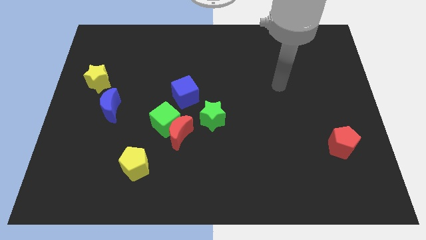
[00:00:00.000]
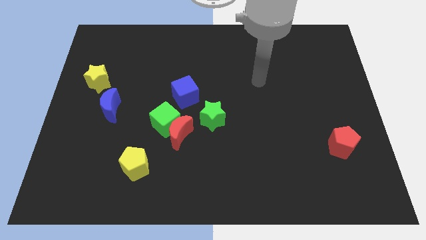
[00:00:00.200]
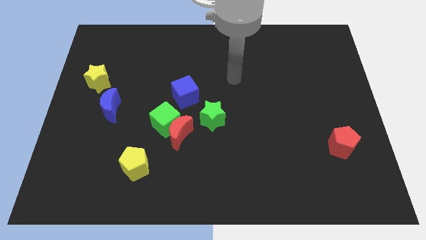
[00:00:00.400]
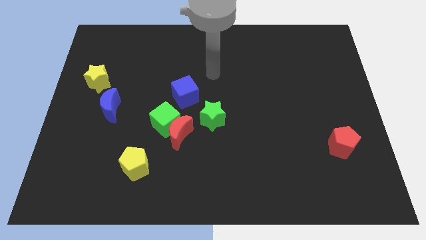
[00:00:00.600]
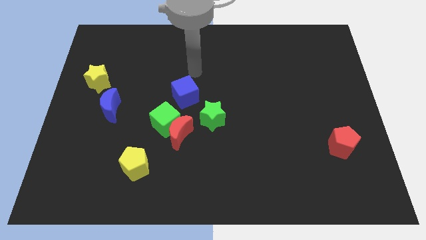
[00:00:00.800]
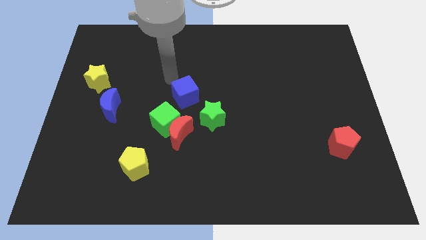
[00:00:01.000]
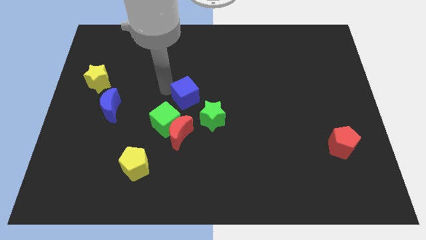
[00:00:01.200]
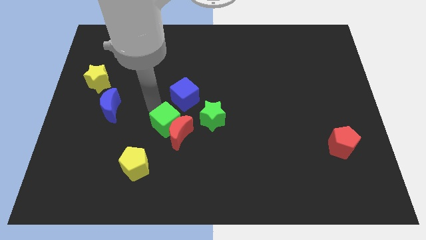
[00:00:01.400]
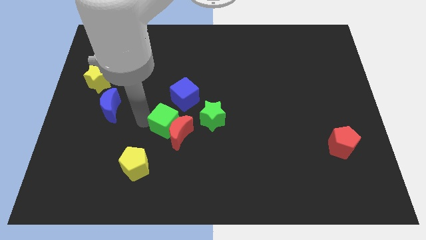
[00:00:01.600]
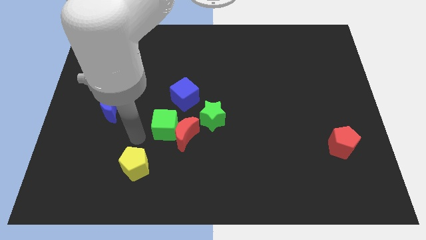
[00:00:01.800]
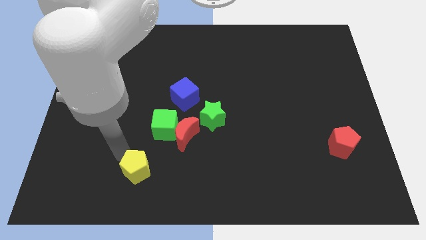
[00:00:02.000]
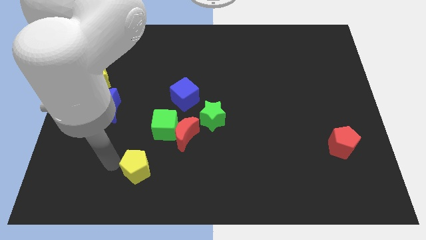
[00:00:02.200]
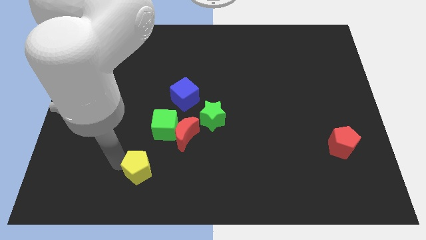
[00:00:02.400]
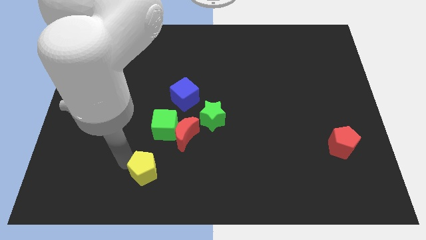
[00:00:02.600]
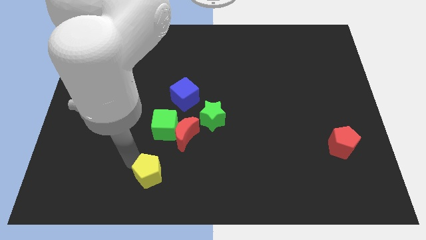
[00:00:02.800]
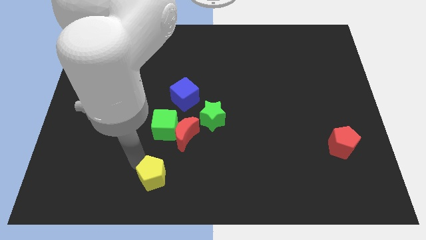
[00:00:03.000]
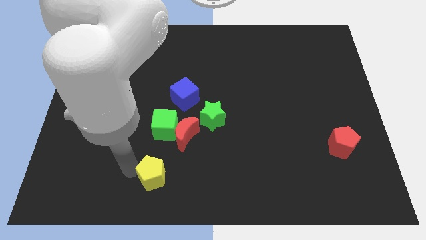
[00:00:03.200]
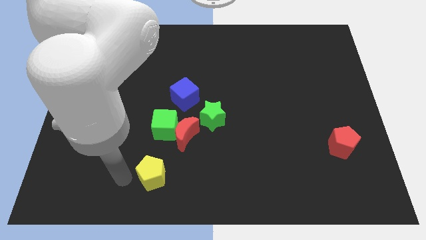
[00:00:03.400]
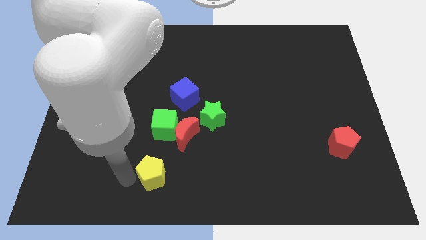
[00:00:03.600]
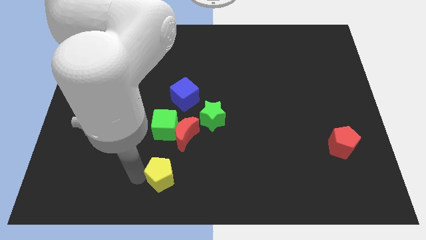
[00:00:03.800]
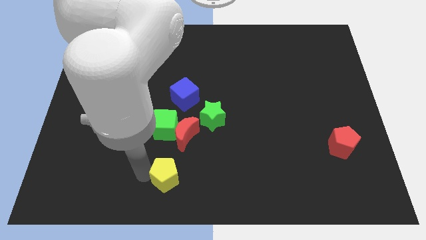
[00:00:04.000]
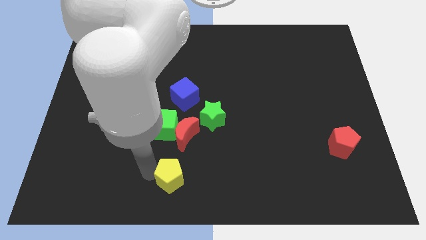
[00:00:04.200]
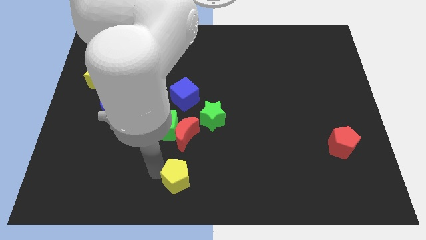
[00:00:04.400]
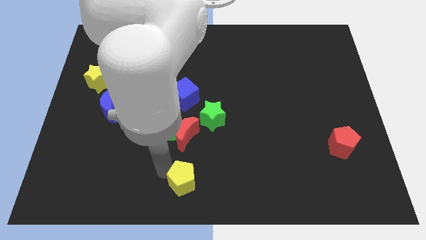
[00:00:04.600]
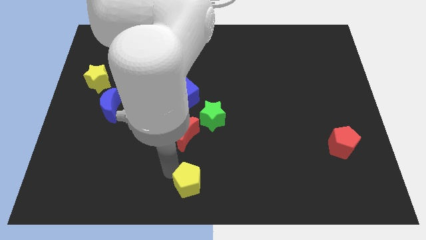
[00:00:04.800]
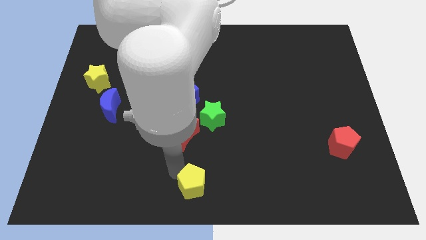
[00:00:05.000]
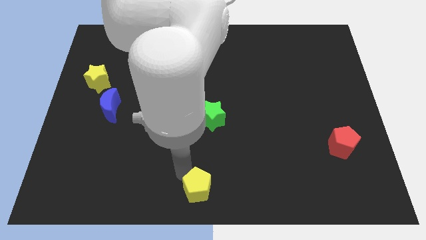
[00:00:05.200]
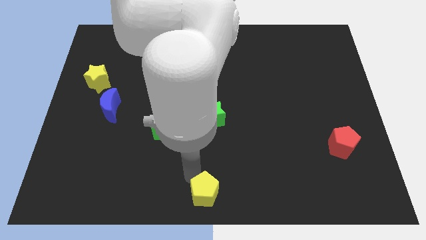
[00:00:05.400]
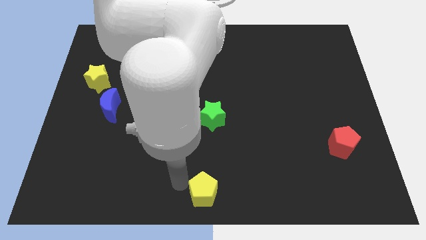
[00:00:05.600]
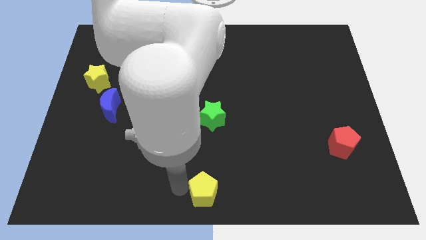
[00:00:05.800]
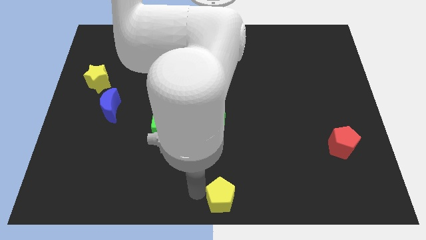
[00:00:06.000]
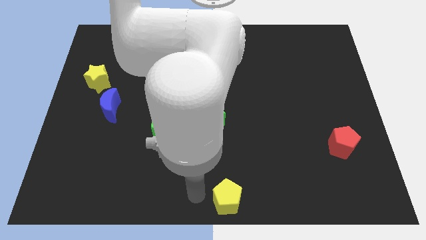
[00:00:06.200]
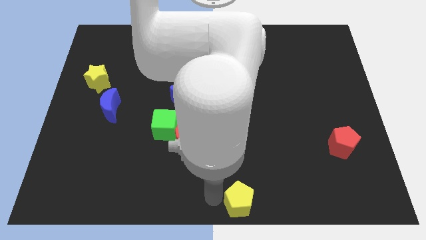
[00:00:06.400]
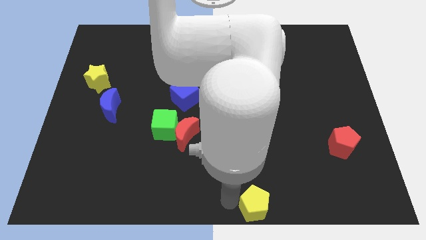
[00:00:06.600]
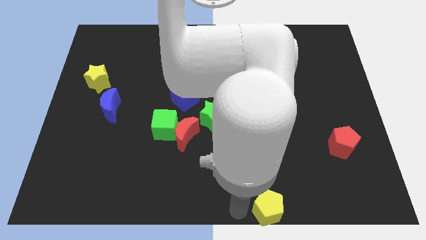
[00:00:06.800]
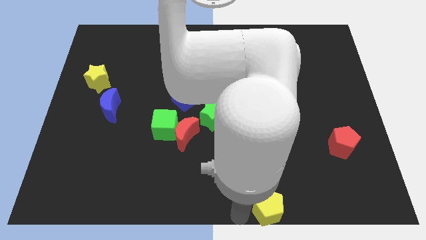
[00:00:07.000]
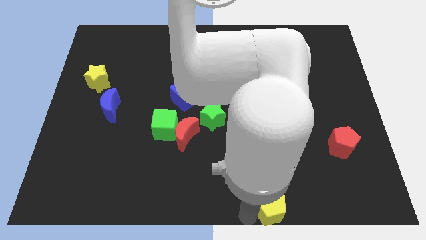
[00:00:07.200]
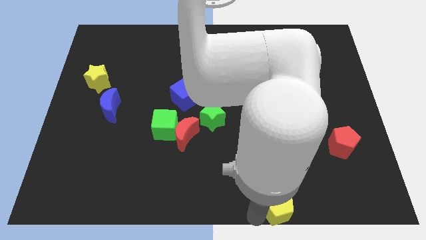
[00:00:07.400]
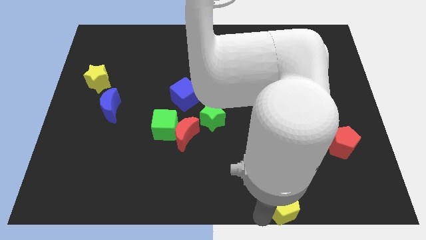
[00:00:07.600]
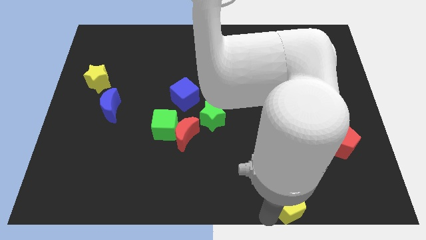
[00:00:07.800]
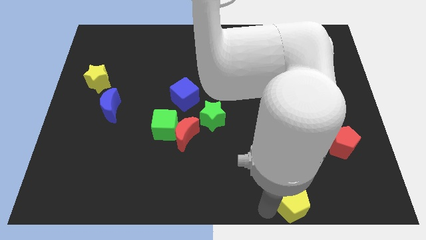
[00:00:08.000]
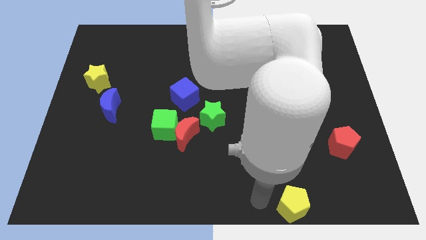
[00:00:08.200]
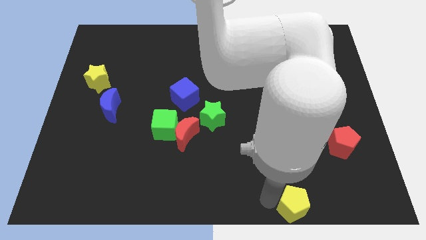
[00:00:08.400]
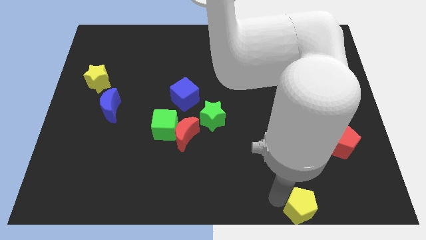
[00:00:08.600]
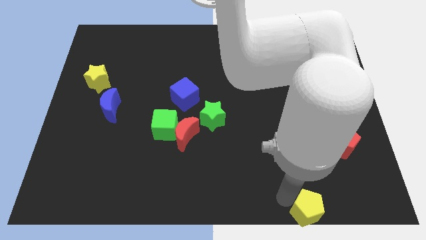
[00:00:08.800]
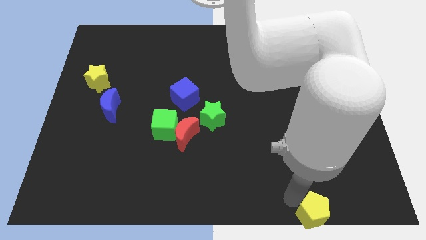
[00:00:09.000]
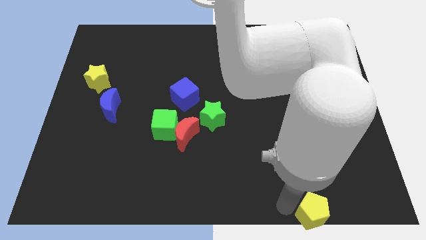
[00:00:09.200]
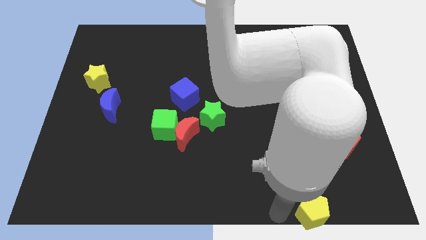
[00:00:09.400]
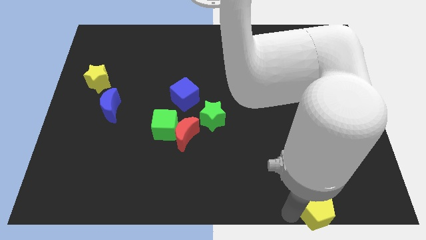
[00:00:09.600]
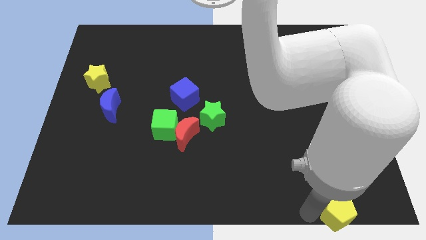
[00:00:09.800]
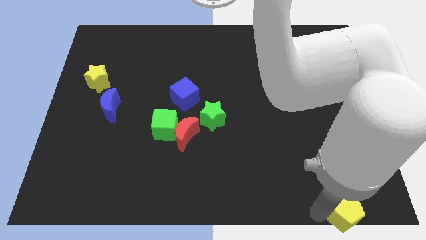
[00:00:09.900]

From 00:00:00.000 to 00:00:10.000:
push the yellow pentagon to the bottom right corner

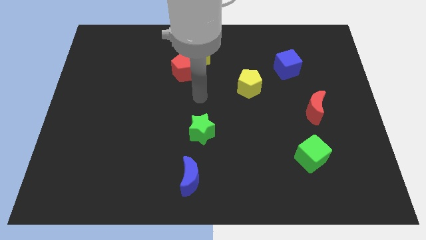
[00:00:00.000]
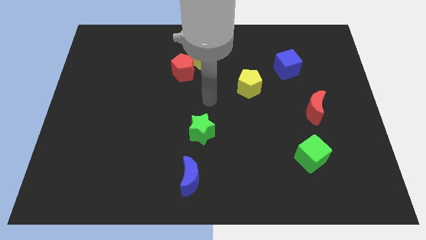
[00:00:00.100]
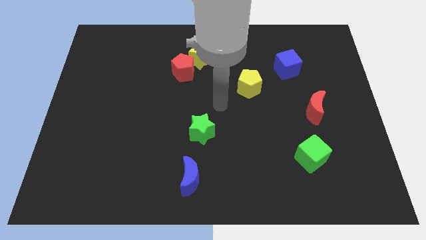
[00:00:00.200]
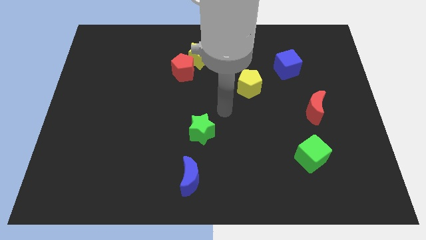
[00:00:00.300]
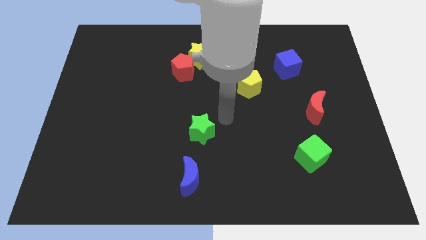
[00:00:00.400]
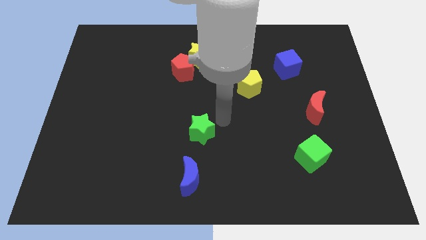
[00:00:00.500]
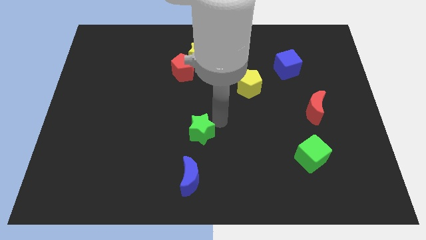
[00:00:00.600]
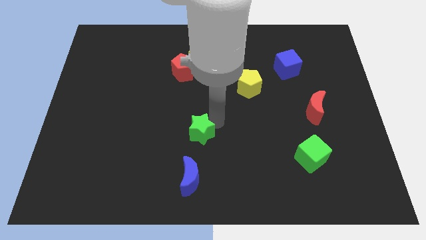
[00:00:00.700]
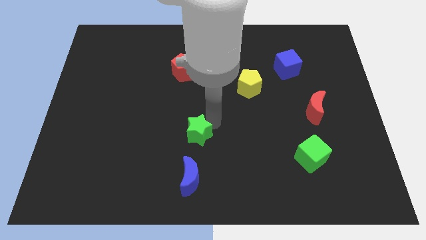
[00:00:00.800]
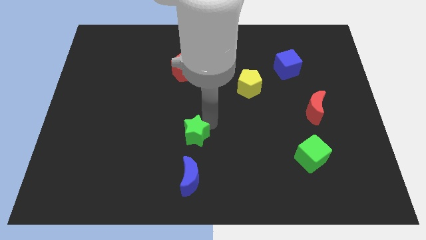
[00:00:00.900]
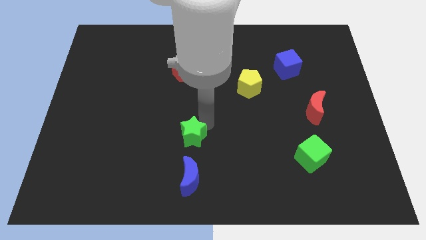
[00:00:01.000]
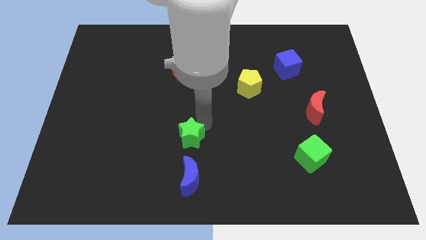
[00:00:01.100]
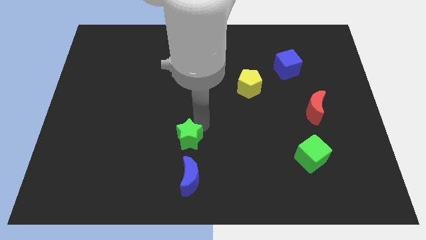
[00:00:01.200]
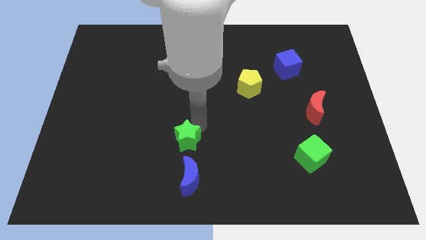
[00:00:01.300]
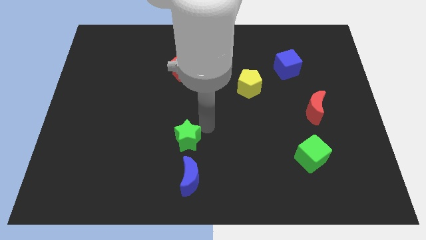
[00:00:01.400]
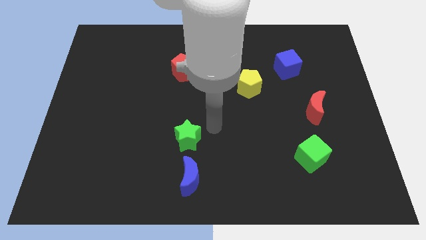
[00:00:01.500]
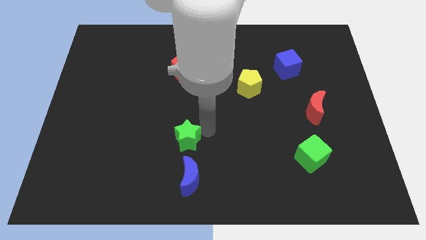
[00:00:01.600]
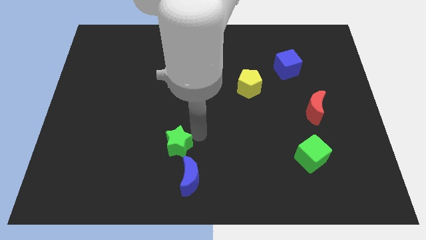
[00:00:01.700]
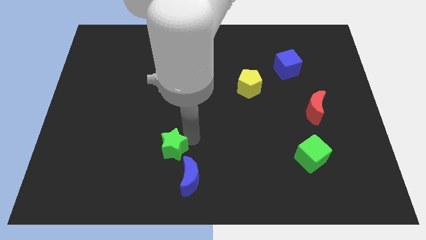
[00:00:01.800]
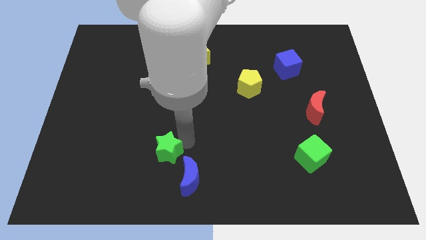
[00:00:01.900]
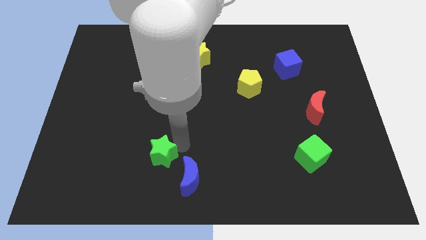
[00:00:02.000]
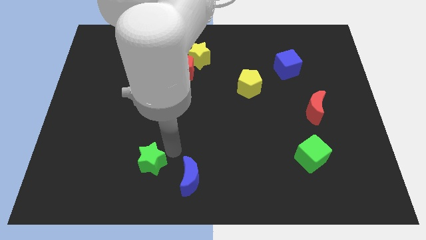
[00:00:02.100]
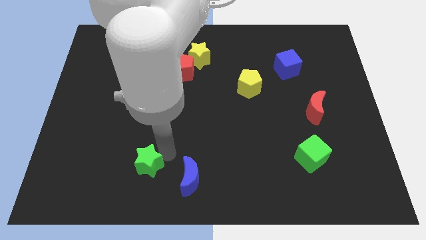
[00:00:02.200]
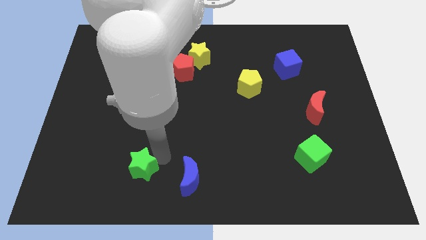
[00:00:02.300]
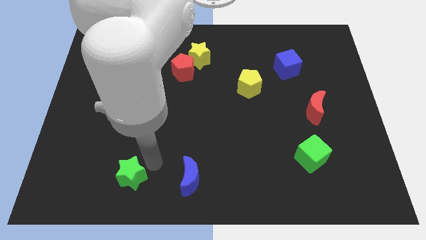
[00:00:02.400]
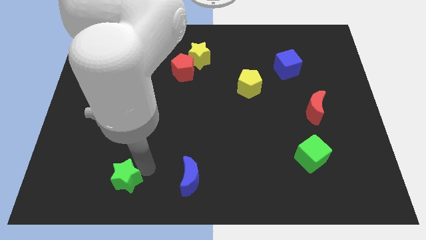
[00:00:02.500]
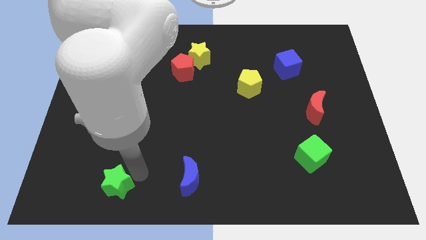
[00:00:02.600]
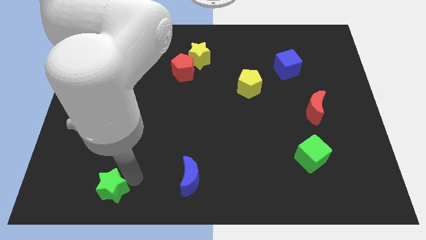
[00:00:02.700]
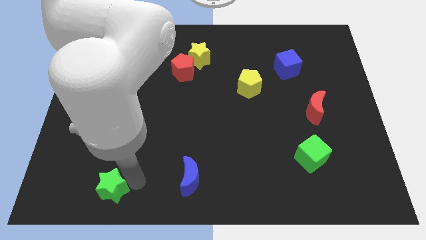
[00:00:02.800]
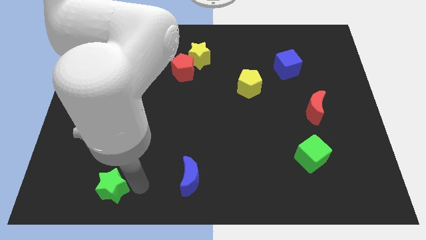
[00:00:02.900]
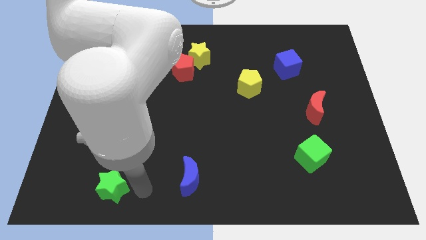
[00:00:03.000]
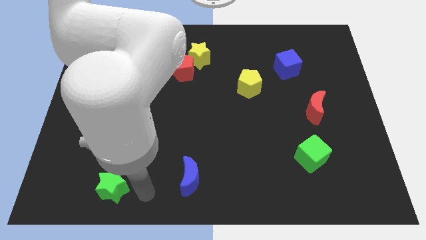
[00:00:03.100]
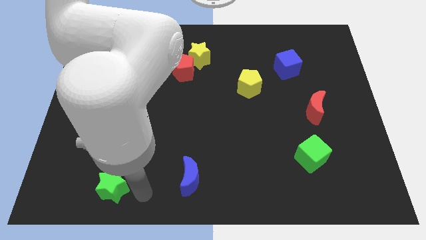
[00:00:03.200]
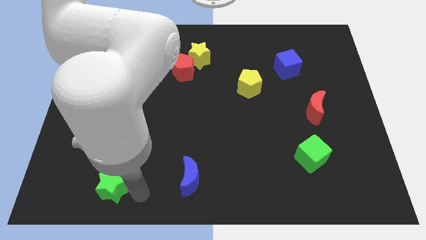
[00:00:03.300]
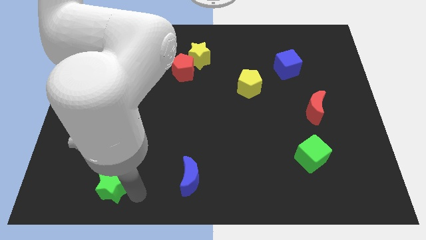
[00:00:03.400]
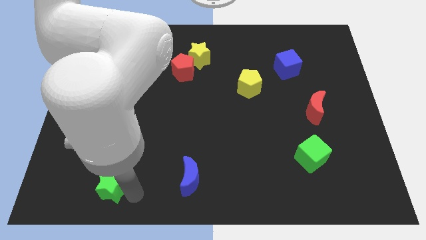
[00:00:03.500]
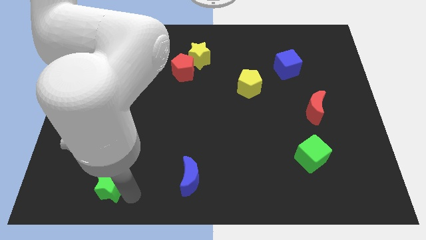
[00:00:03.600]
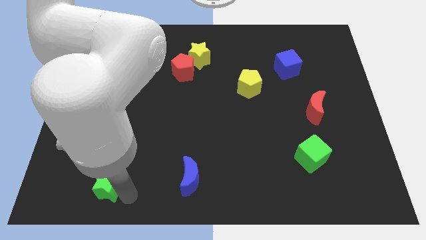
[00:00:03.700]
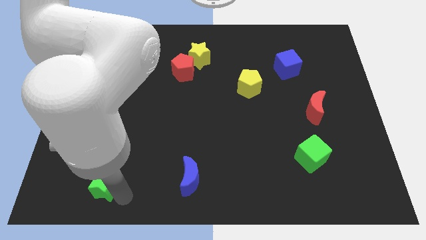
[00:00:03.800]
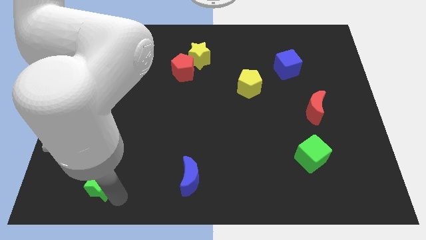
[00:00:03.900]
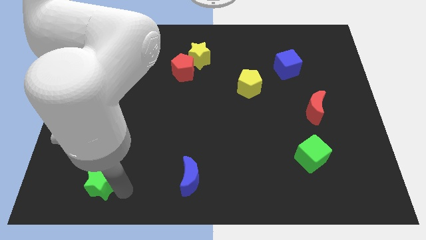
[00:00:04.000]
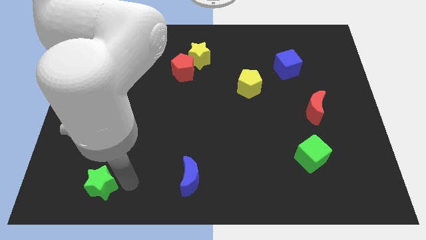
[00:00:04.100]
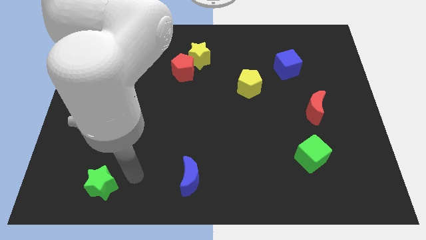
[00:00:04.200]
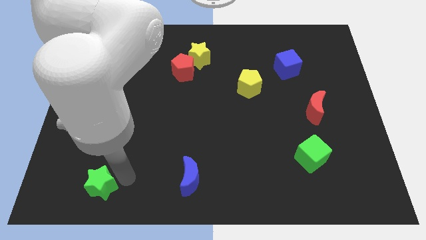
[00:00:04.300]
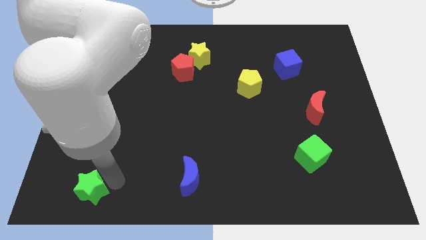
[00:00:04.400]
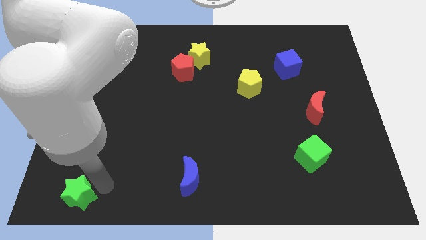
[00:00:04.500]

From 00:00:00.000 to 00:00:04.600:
move the green star to the bottom left corner
